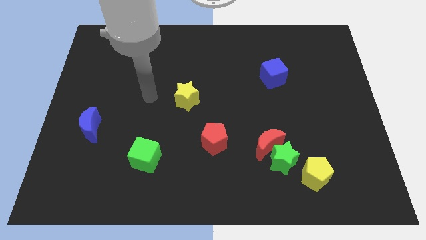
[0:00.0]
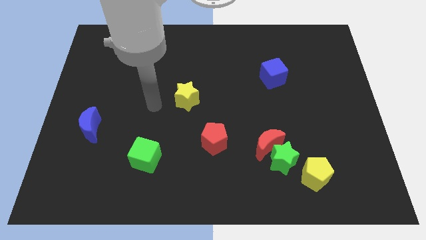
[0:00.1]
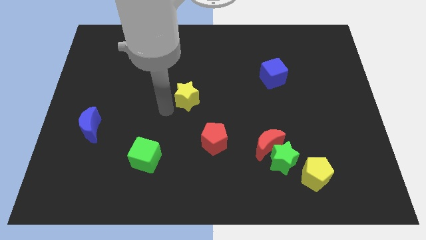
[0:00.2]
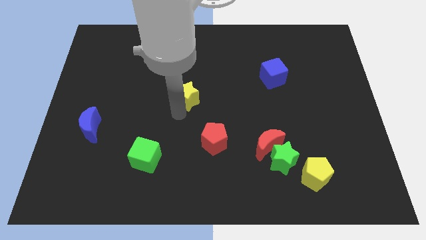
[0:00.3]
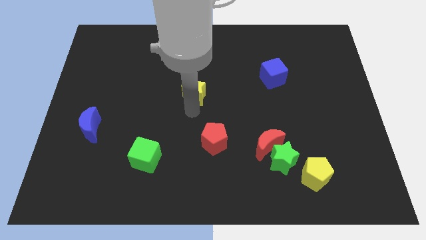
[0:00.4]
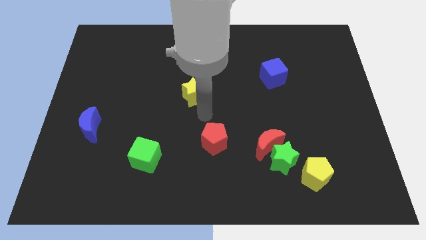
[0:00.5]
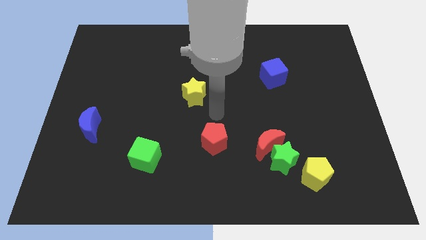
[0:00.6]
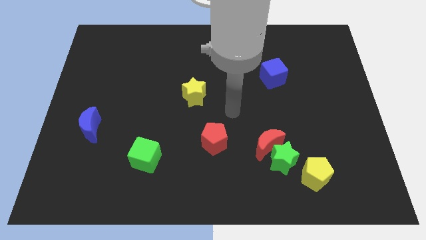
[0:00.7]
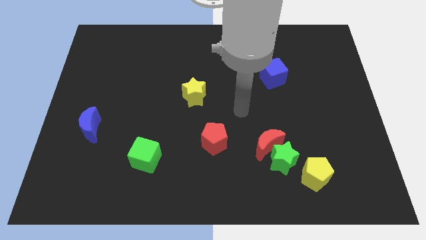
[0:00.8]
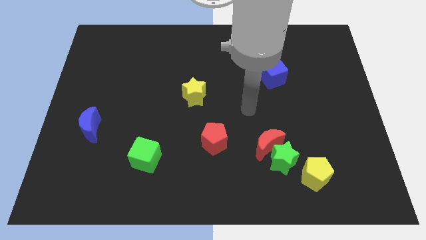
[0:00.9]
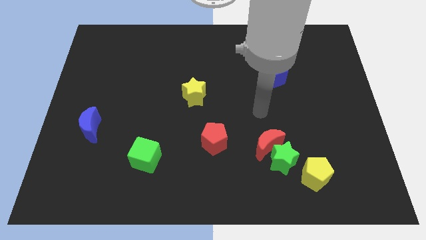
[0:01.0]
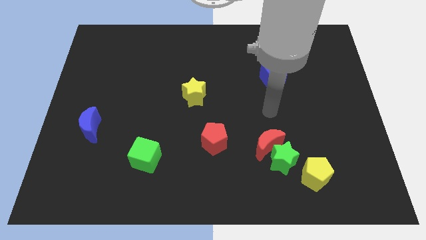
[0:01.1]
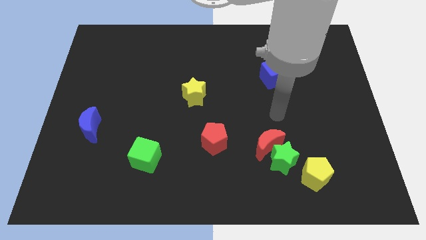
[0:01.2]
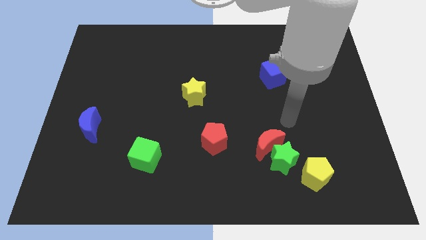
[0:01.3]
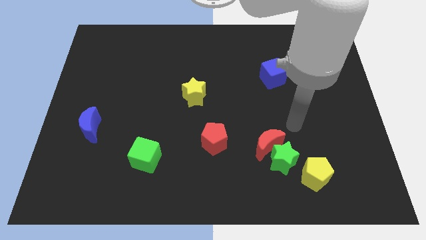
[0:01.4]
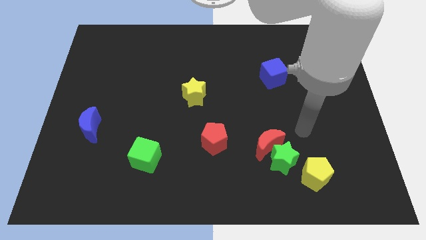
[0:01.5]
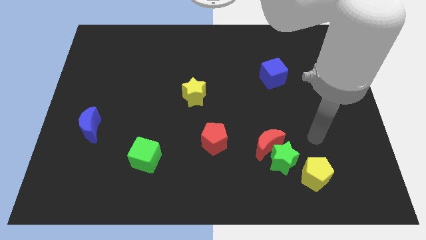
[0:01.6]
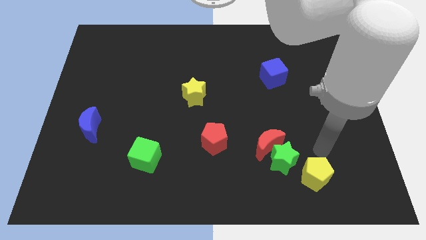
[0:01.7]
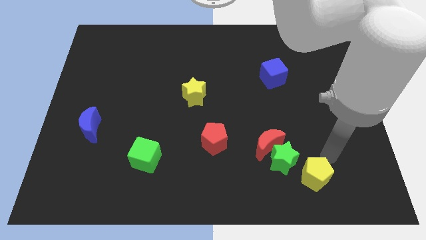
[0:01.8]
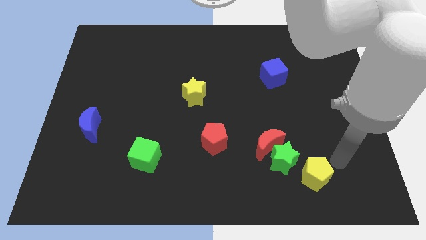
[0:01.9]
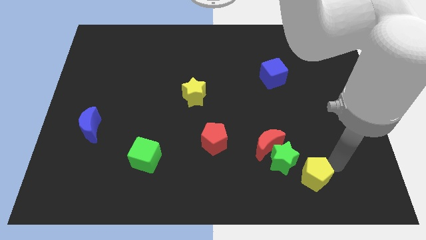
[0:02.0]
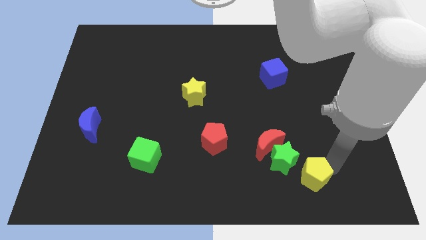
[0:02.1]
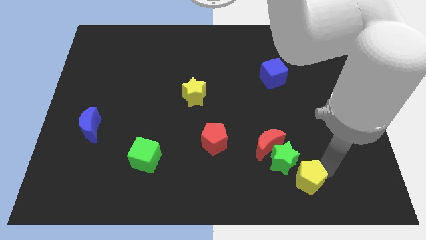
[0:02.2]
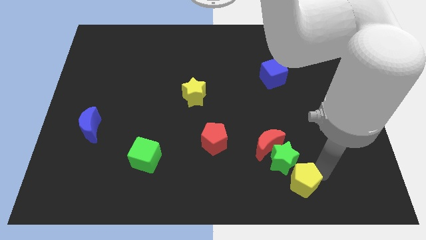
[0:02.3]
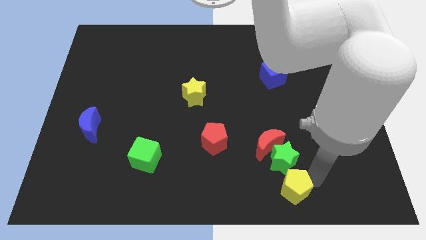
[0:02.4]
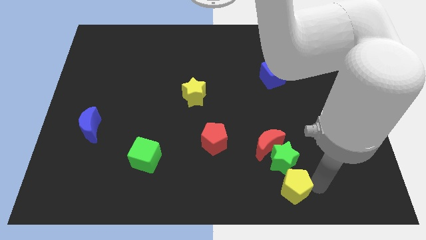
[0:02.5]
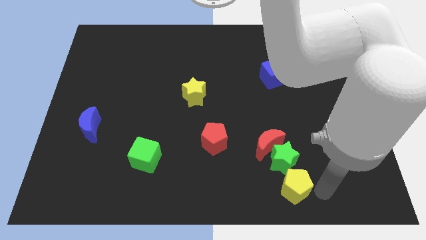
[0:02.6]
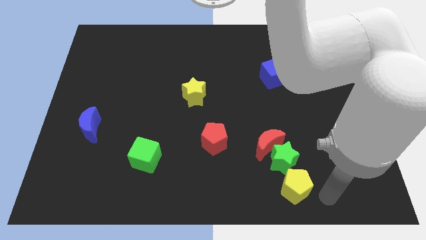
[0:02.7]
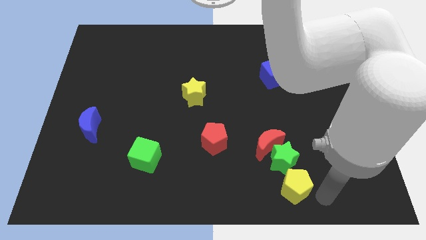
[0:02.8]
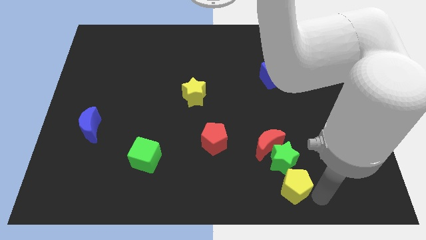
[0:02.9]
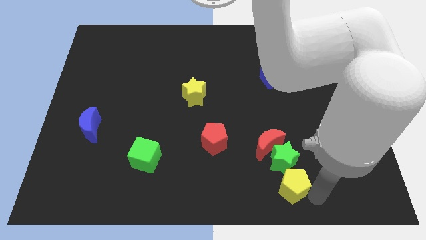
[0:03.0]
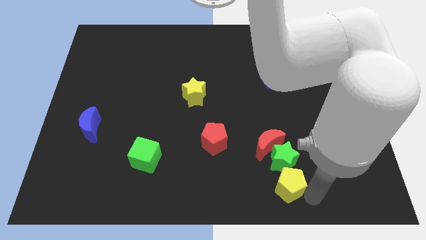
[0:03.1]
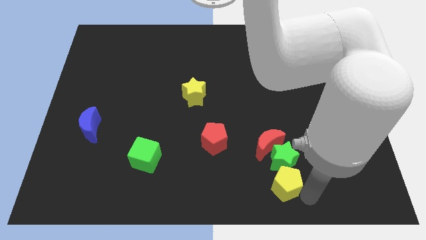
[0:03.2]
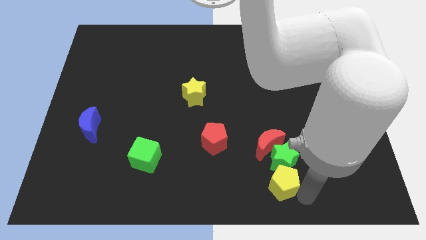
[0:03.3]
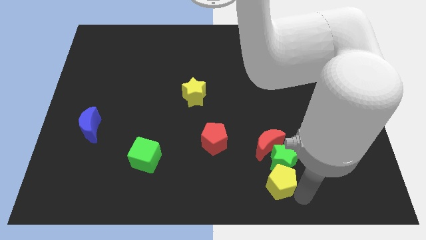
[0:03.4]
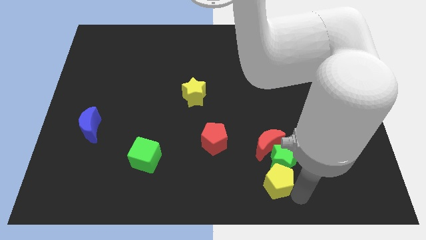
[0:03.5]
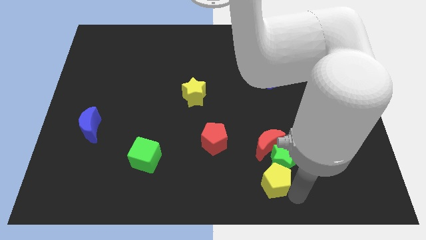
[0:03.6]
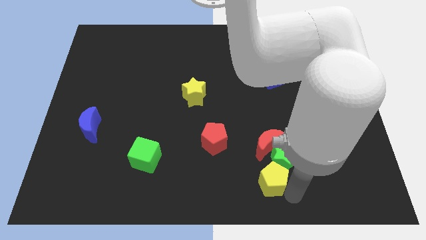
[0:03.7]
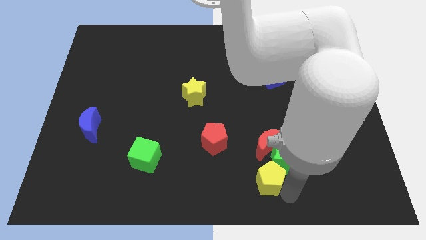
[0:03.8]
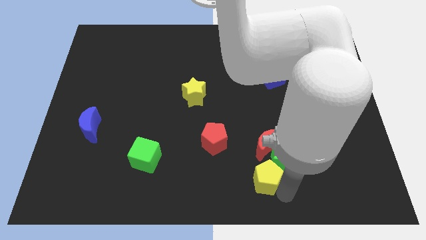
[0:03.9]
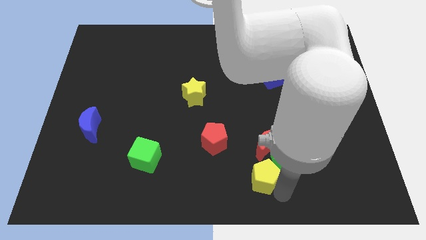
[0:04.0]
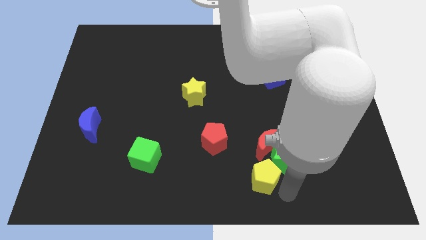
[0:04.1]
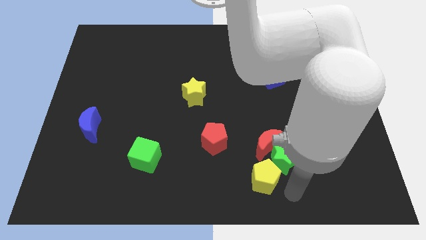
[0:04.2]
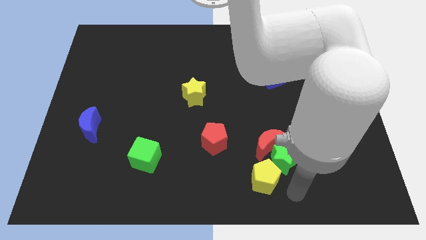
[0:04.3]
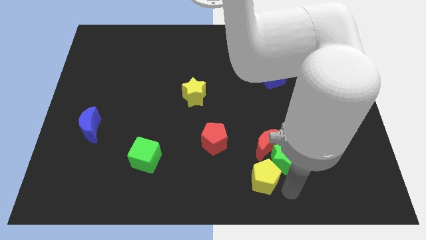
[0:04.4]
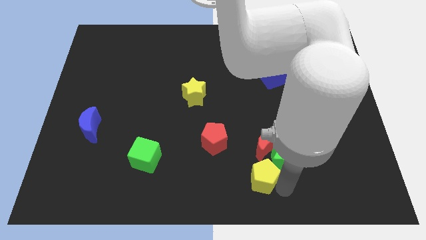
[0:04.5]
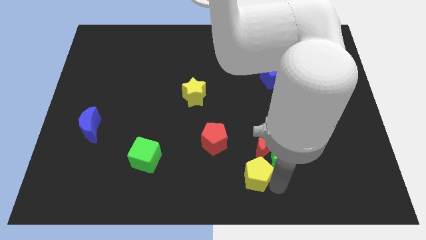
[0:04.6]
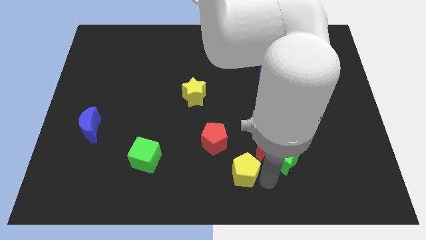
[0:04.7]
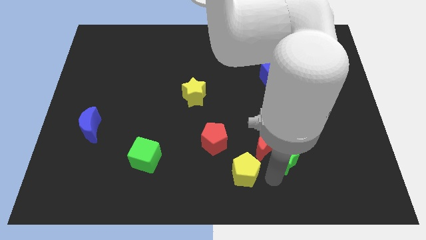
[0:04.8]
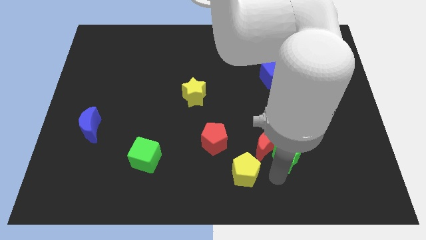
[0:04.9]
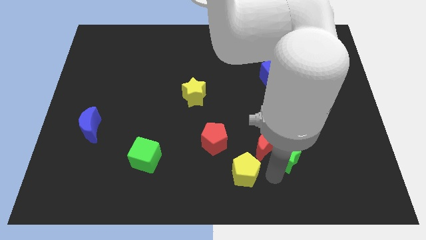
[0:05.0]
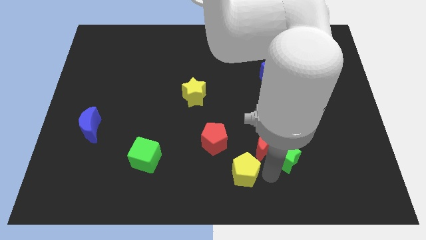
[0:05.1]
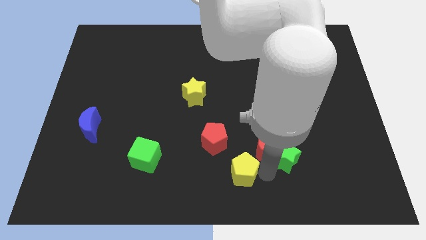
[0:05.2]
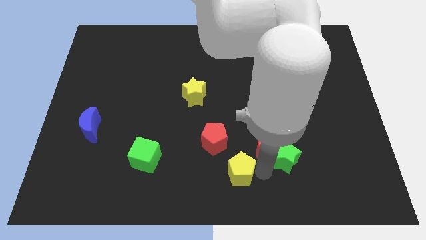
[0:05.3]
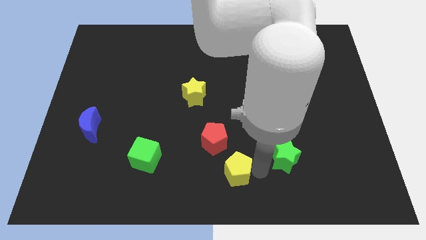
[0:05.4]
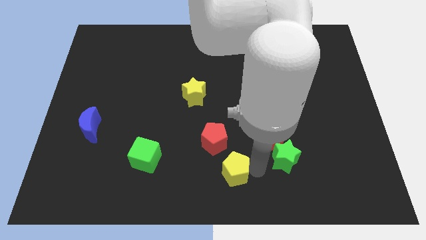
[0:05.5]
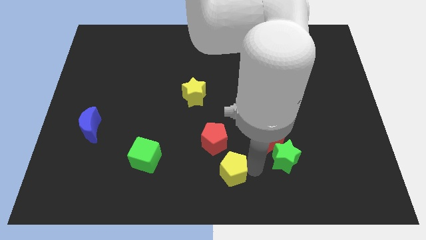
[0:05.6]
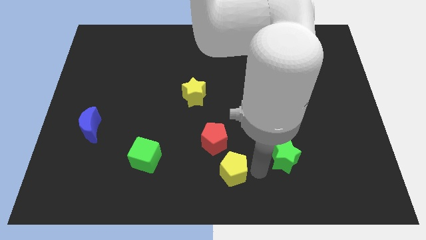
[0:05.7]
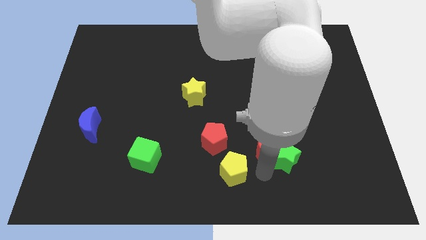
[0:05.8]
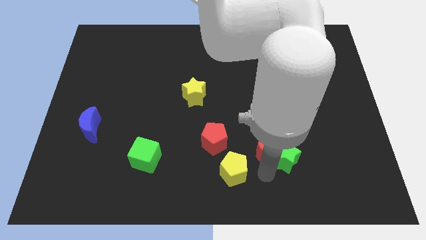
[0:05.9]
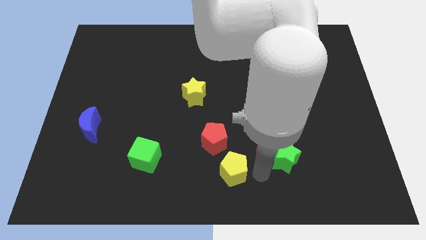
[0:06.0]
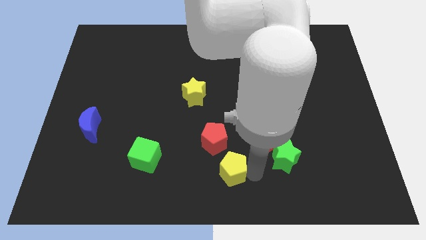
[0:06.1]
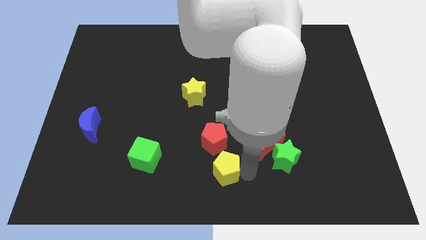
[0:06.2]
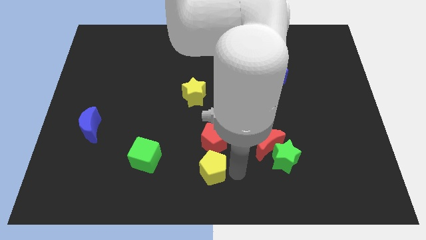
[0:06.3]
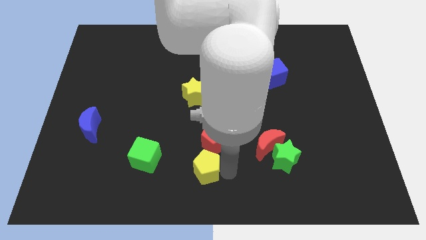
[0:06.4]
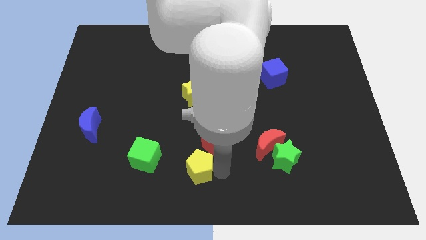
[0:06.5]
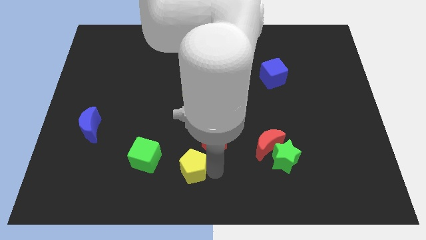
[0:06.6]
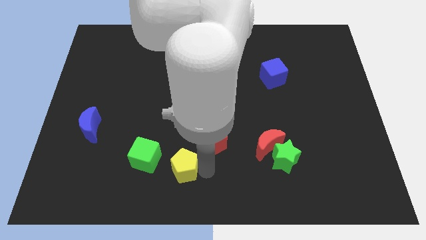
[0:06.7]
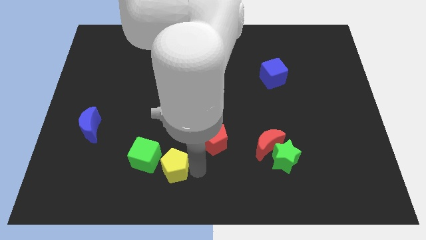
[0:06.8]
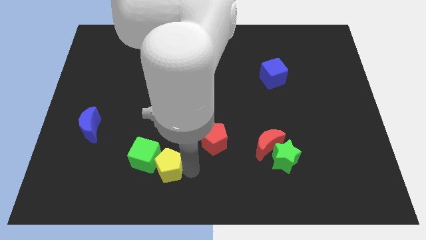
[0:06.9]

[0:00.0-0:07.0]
slide the yellow pentagon towards the green cube

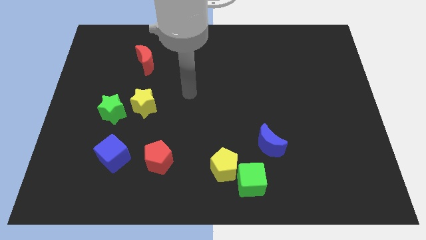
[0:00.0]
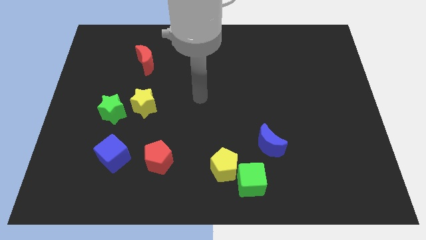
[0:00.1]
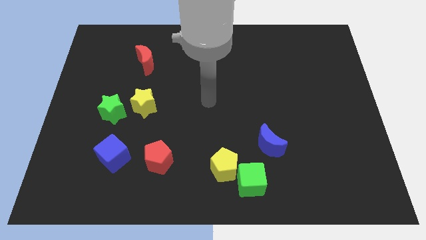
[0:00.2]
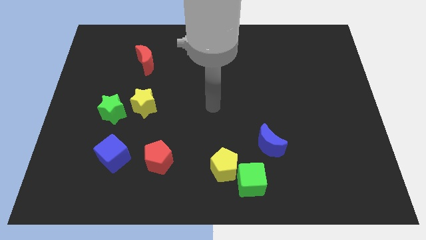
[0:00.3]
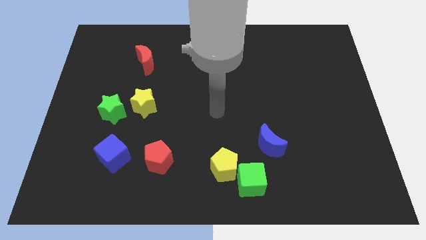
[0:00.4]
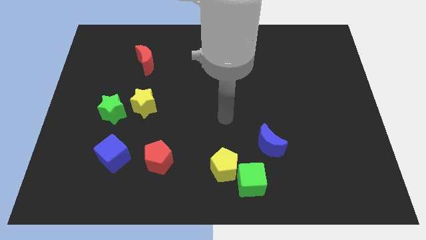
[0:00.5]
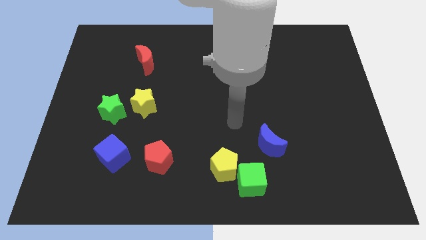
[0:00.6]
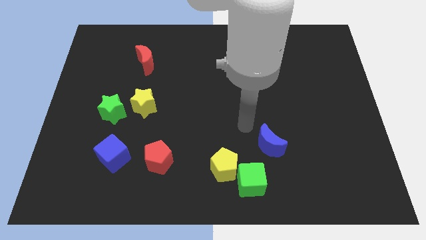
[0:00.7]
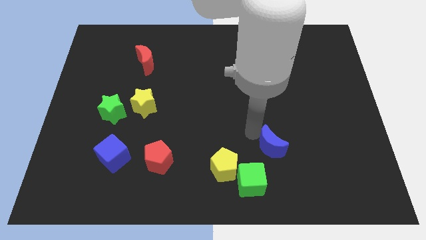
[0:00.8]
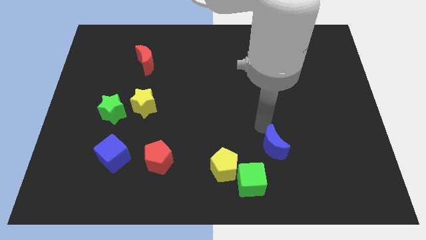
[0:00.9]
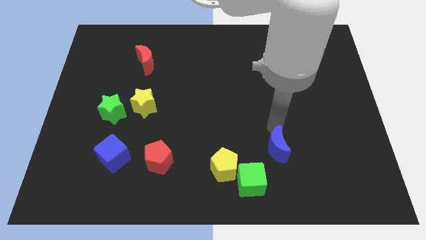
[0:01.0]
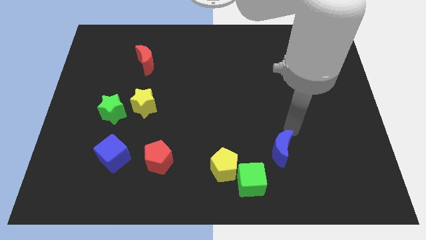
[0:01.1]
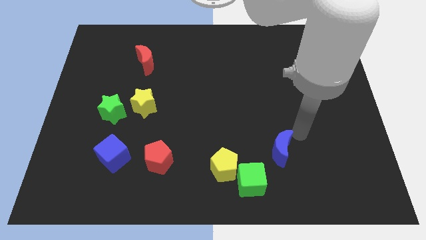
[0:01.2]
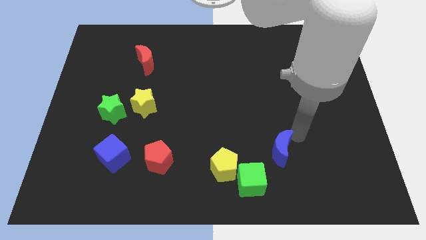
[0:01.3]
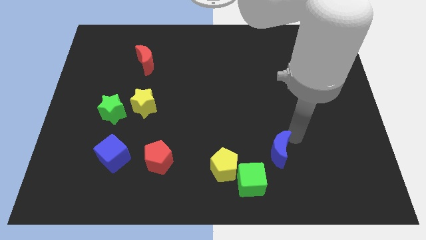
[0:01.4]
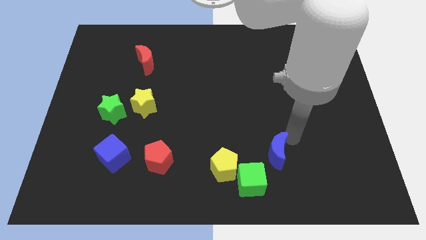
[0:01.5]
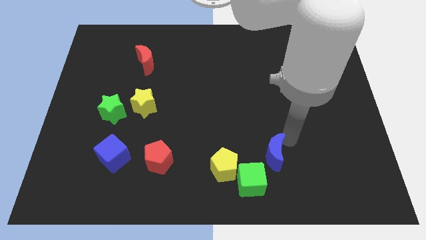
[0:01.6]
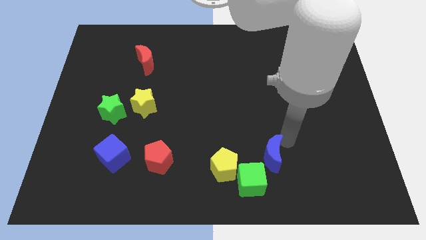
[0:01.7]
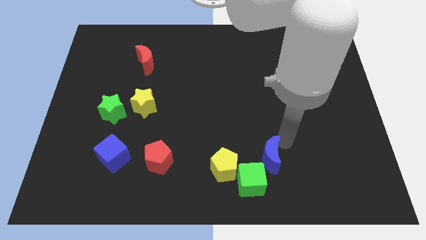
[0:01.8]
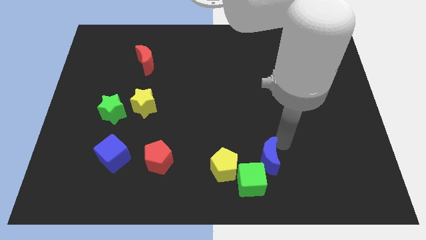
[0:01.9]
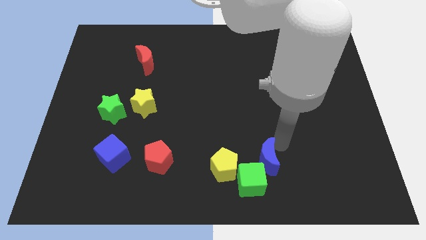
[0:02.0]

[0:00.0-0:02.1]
slide the blue moon to the green cube
